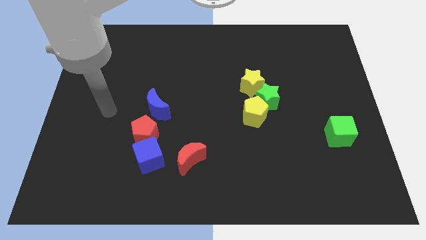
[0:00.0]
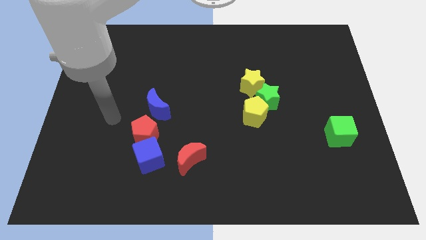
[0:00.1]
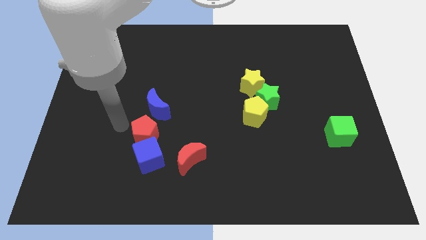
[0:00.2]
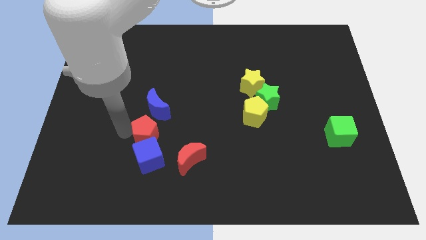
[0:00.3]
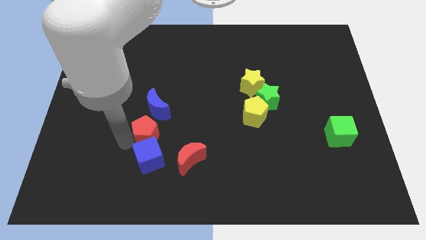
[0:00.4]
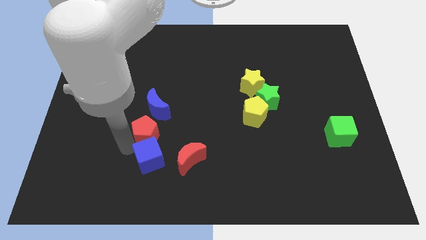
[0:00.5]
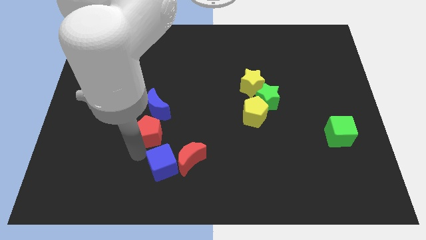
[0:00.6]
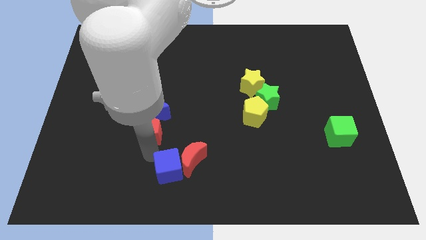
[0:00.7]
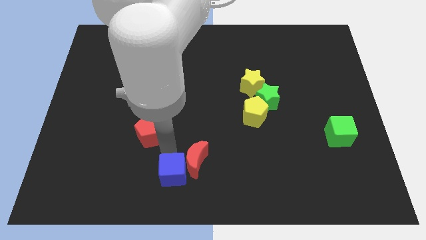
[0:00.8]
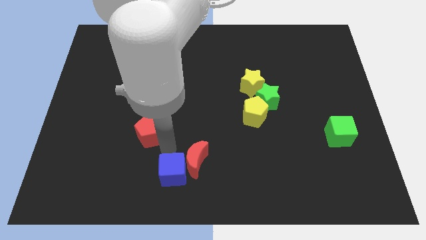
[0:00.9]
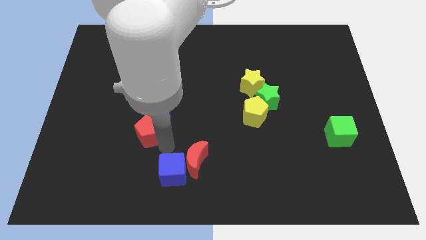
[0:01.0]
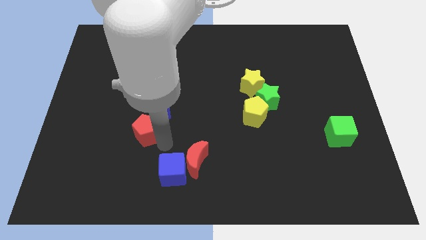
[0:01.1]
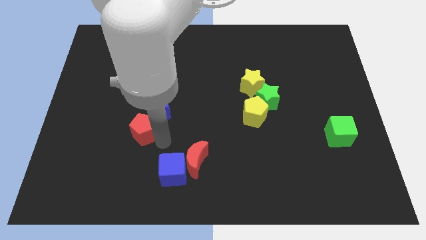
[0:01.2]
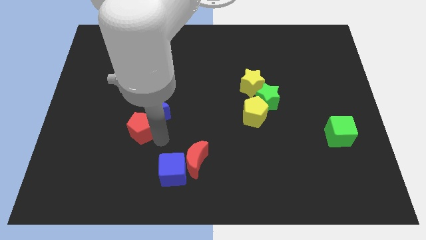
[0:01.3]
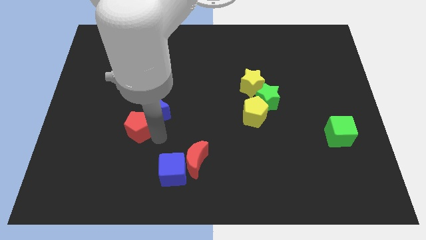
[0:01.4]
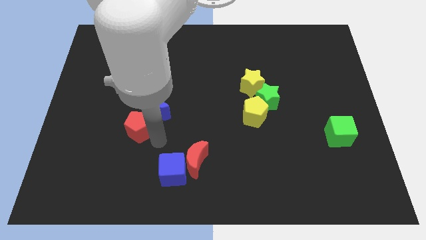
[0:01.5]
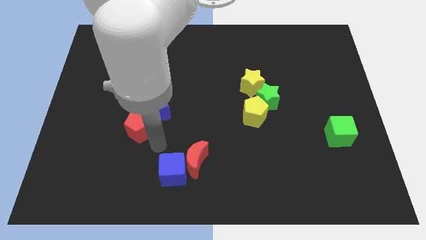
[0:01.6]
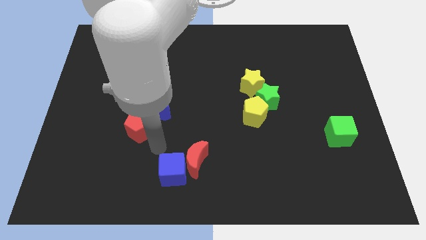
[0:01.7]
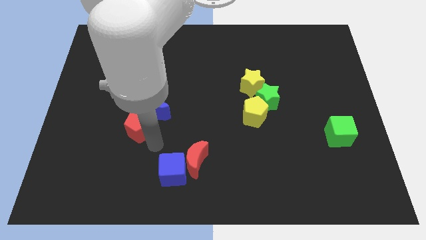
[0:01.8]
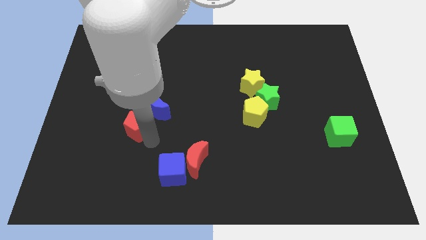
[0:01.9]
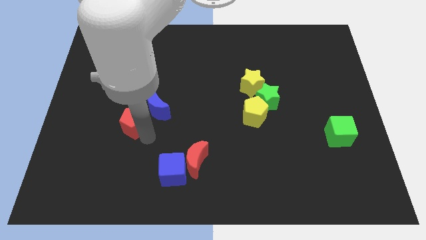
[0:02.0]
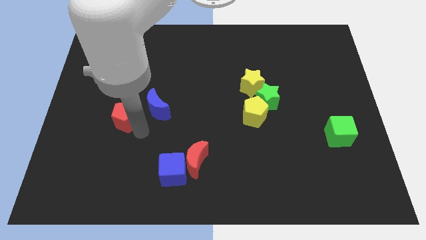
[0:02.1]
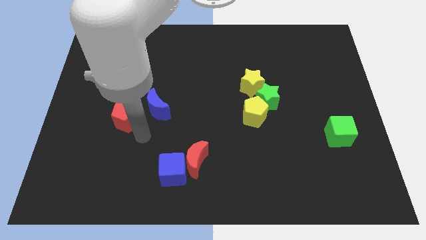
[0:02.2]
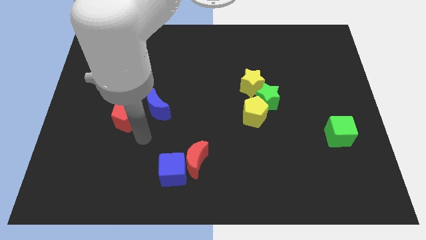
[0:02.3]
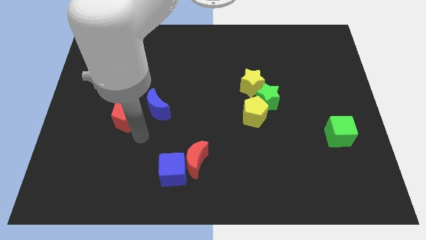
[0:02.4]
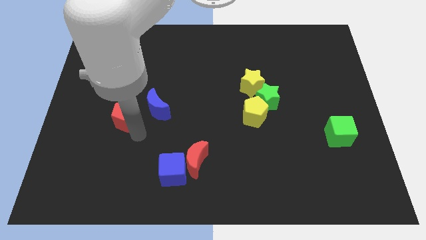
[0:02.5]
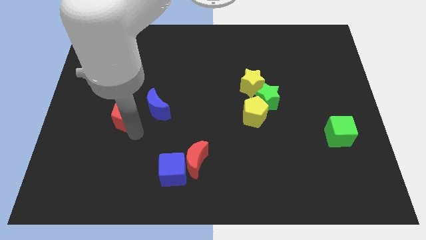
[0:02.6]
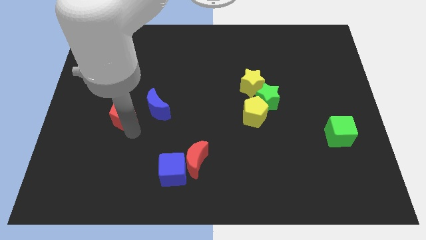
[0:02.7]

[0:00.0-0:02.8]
move the red pentagon up and then to the left a little bit

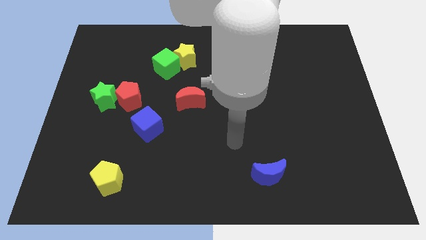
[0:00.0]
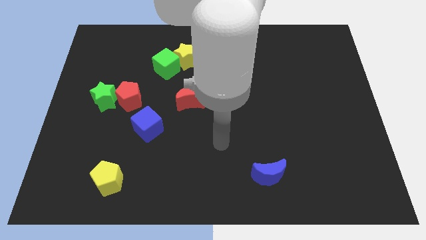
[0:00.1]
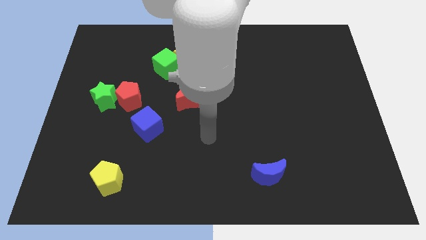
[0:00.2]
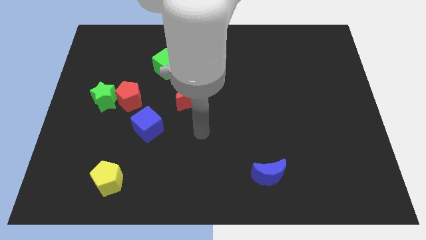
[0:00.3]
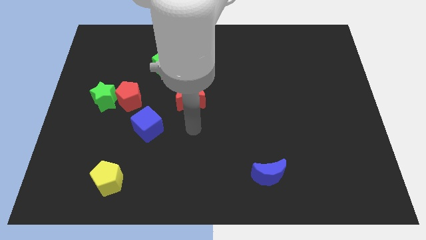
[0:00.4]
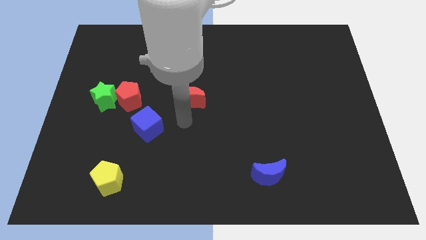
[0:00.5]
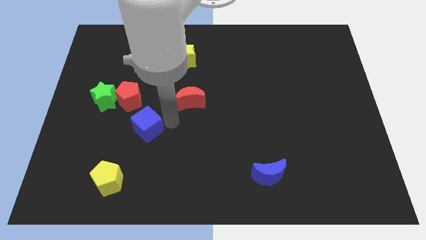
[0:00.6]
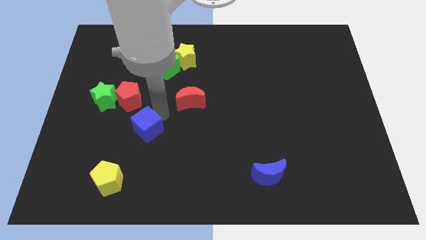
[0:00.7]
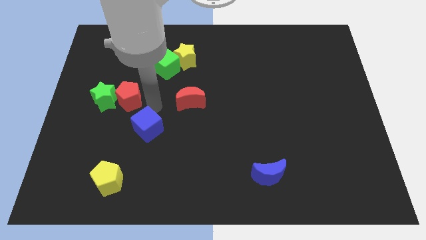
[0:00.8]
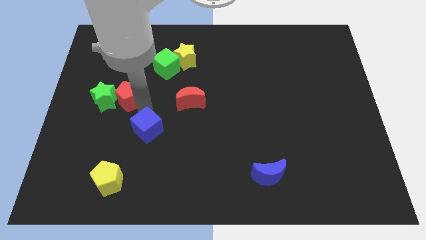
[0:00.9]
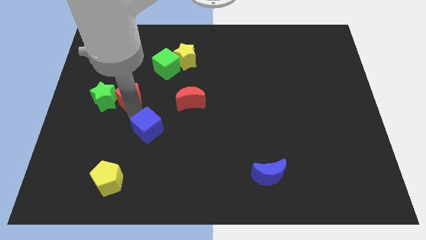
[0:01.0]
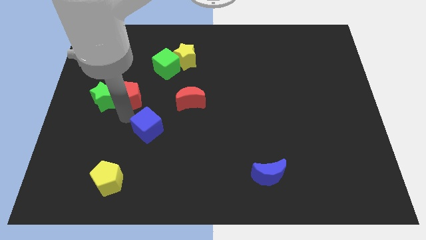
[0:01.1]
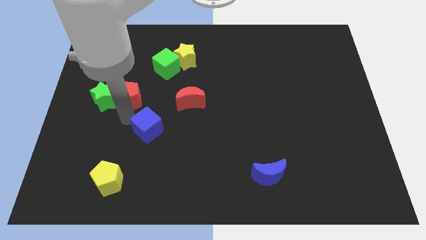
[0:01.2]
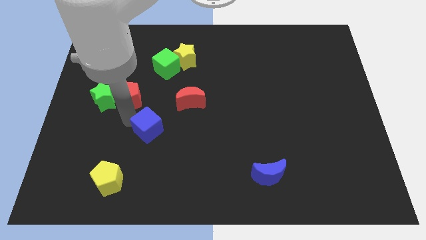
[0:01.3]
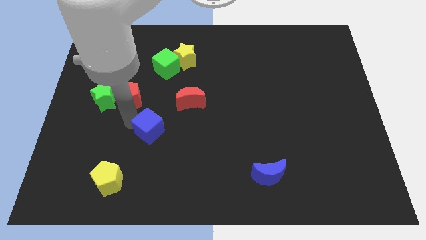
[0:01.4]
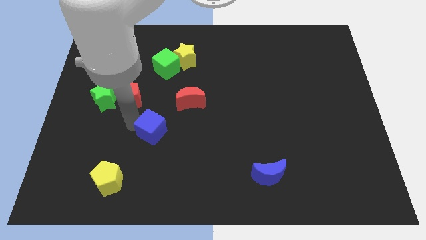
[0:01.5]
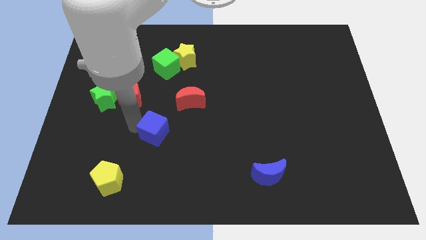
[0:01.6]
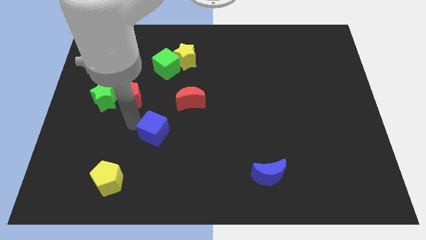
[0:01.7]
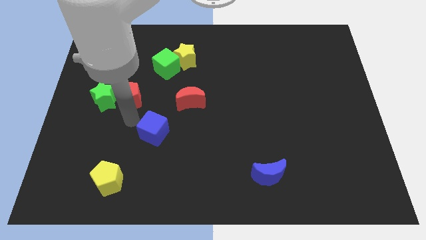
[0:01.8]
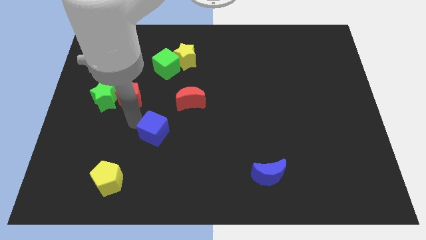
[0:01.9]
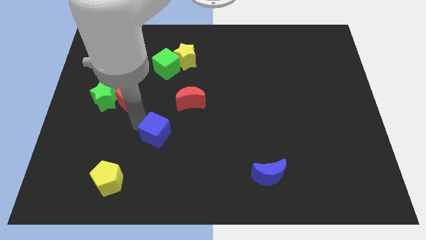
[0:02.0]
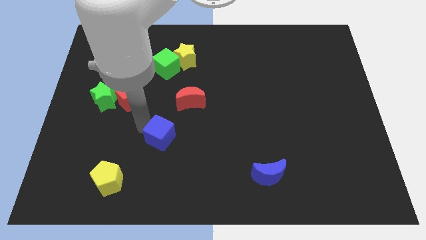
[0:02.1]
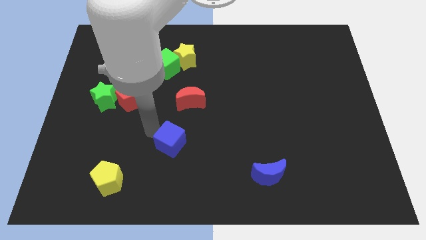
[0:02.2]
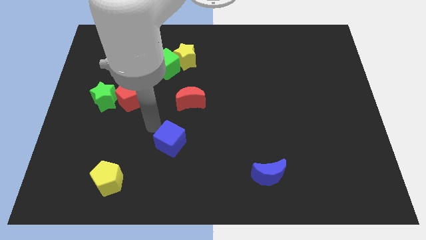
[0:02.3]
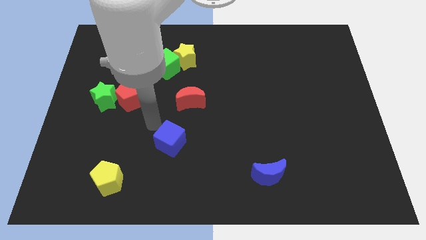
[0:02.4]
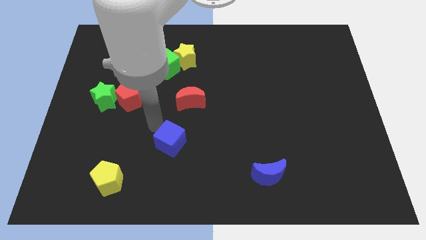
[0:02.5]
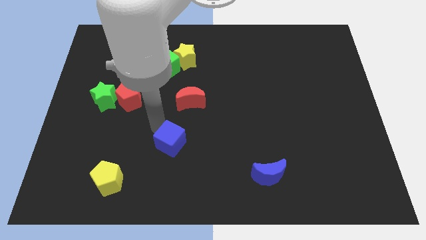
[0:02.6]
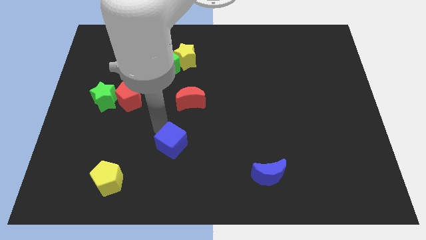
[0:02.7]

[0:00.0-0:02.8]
slightly slide the blue cube down and to the right diagonally

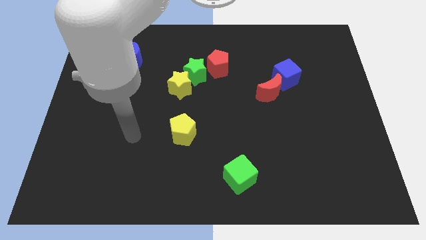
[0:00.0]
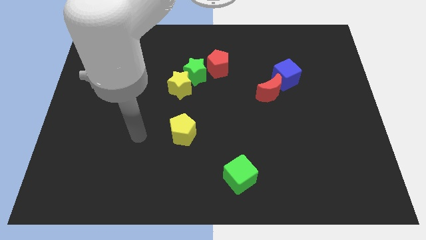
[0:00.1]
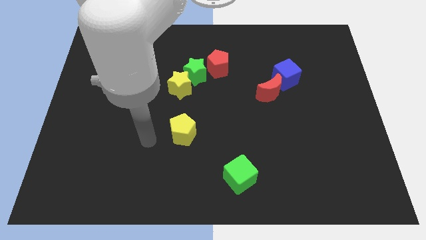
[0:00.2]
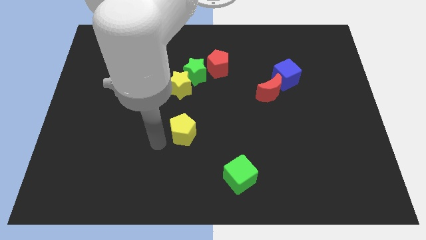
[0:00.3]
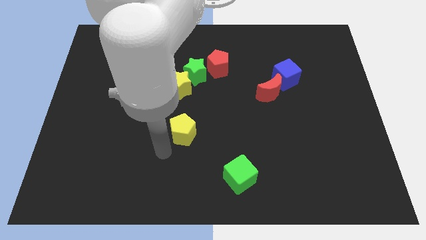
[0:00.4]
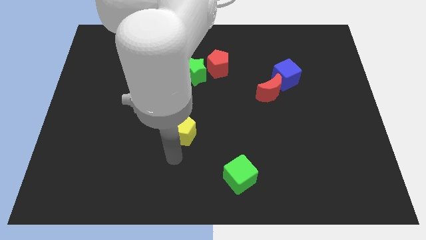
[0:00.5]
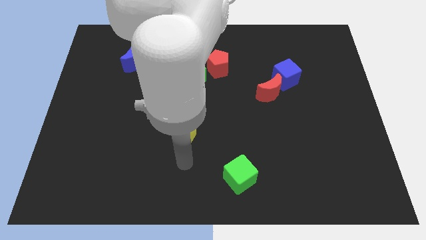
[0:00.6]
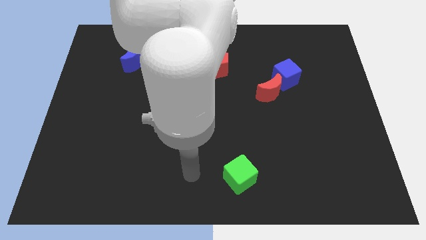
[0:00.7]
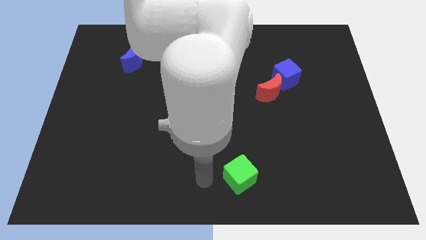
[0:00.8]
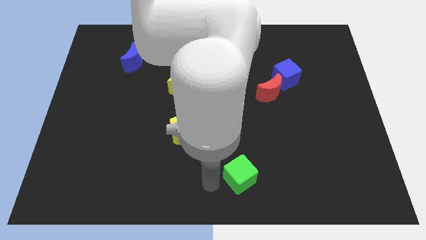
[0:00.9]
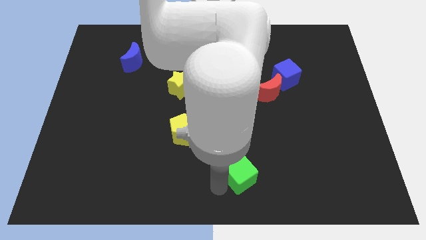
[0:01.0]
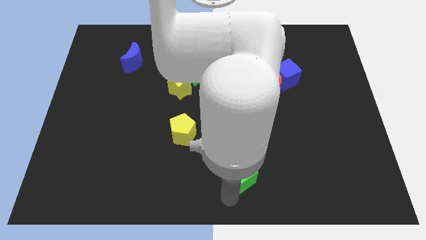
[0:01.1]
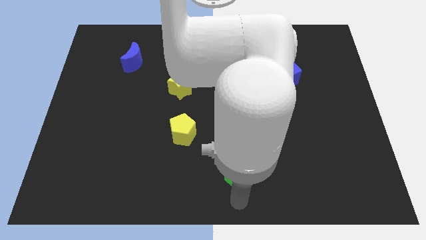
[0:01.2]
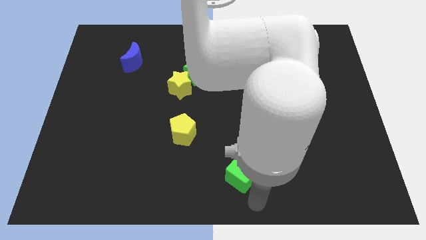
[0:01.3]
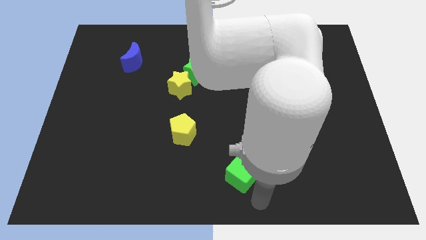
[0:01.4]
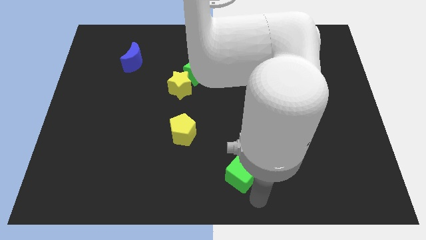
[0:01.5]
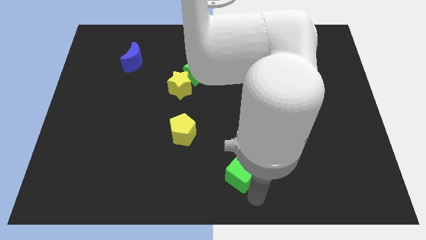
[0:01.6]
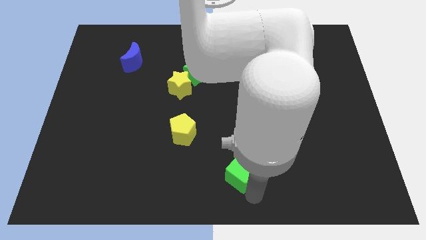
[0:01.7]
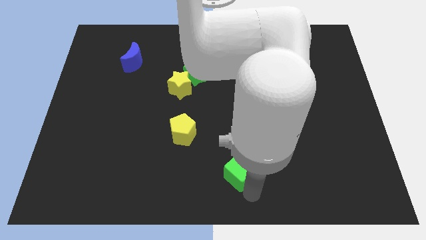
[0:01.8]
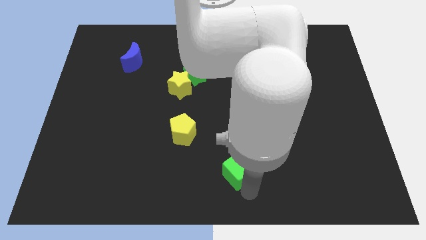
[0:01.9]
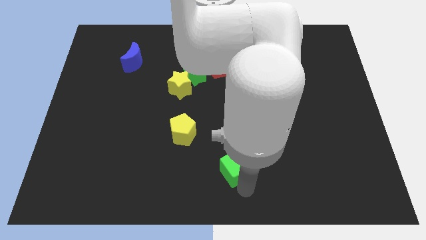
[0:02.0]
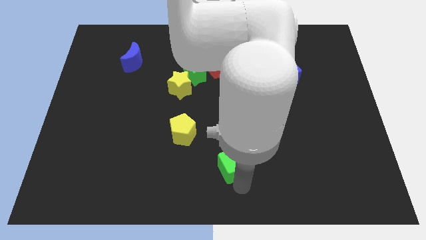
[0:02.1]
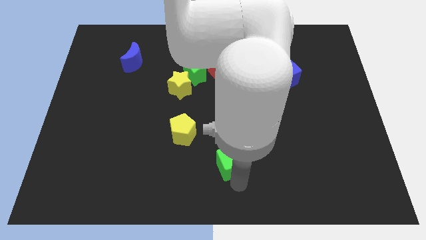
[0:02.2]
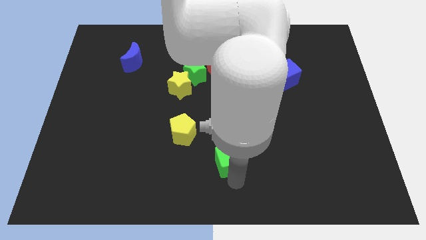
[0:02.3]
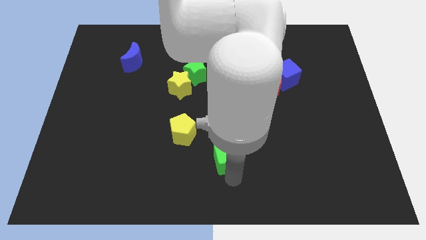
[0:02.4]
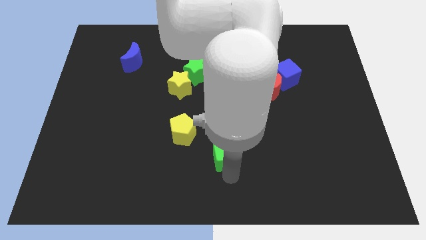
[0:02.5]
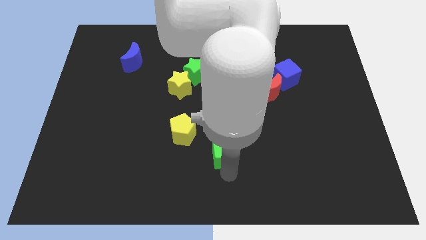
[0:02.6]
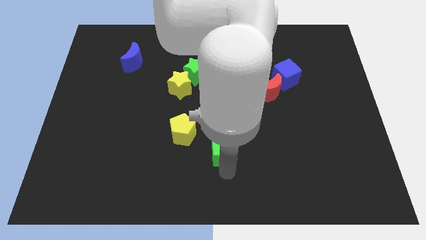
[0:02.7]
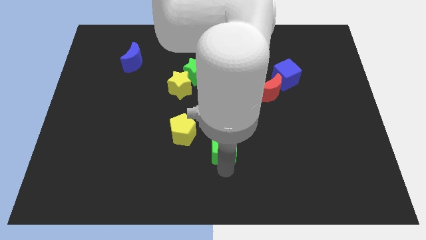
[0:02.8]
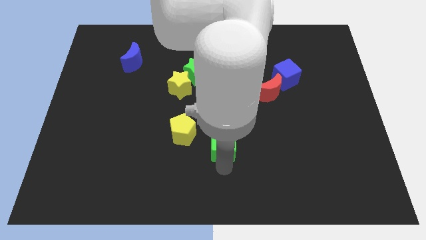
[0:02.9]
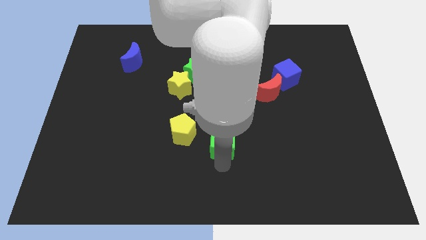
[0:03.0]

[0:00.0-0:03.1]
move the green cube up a little bit
